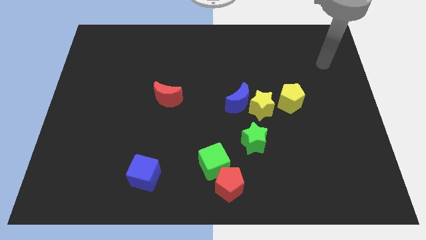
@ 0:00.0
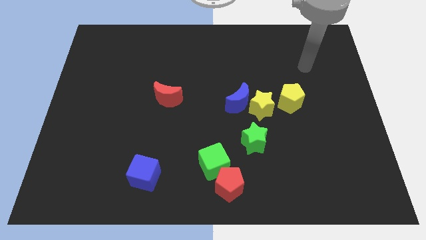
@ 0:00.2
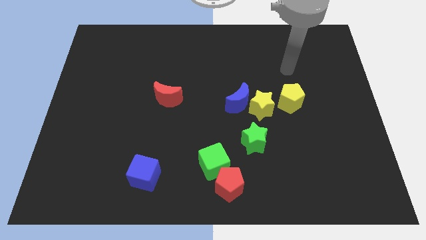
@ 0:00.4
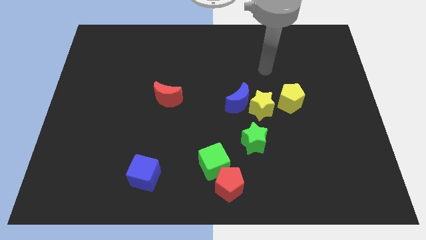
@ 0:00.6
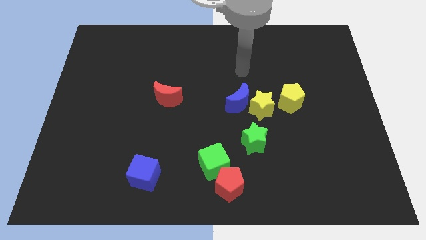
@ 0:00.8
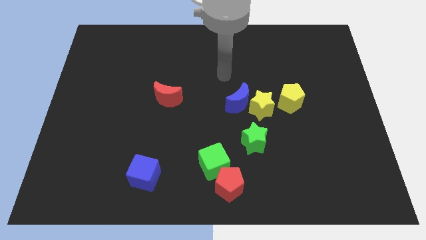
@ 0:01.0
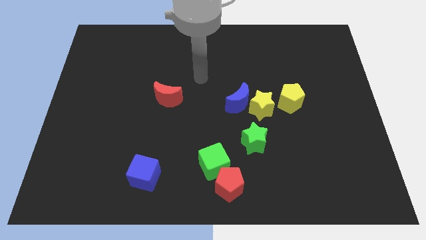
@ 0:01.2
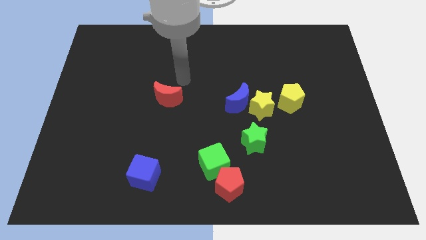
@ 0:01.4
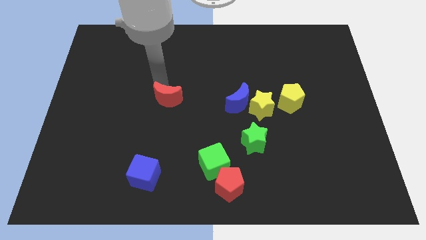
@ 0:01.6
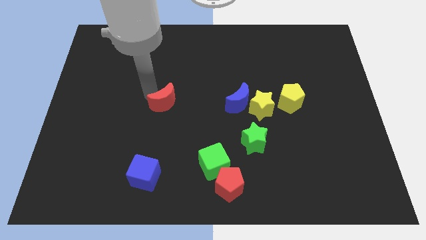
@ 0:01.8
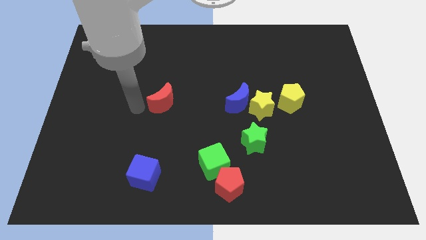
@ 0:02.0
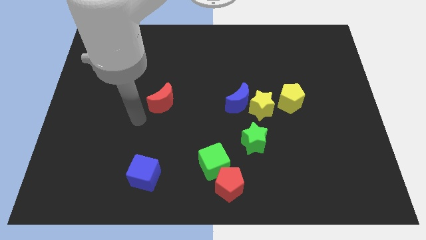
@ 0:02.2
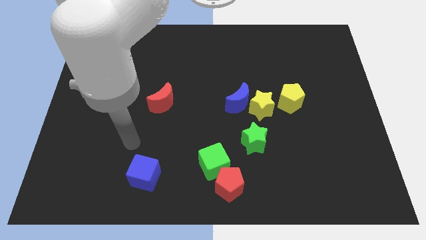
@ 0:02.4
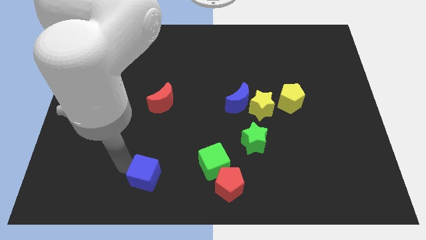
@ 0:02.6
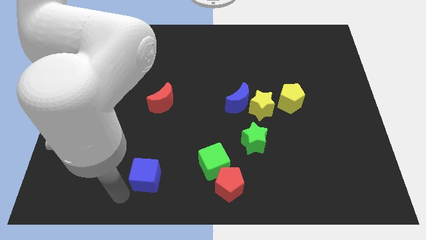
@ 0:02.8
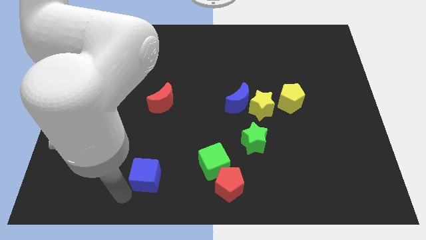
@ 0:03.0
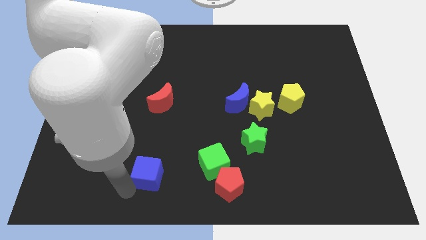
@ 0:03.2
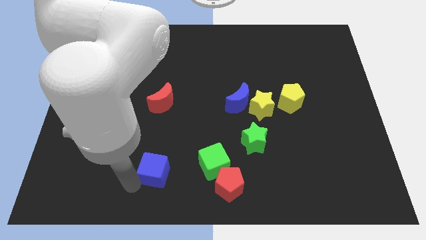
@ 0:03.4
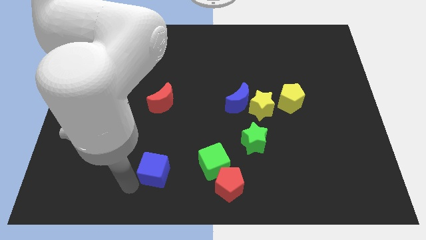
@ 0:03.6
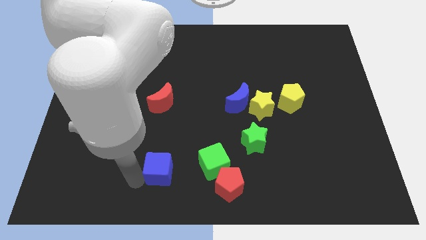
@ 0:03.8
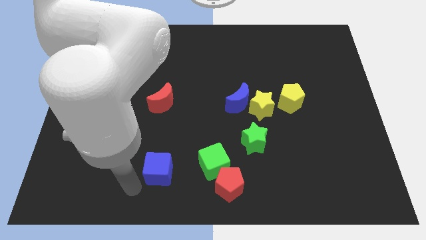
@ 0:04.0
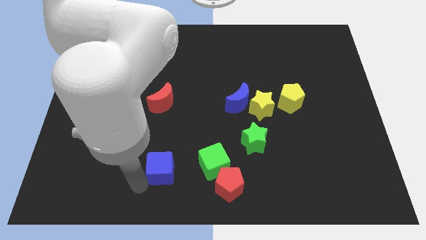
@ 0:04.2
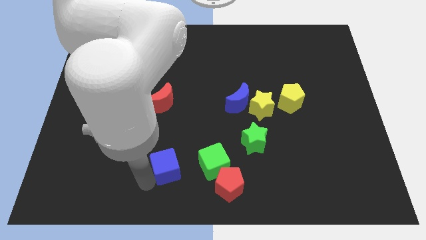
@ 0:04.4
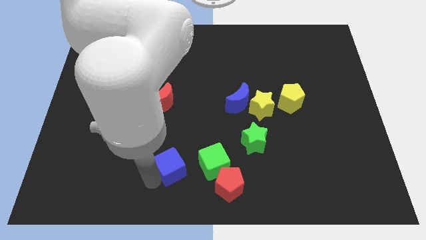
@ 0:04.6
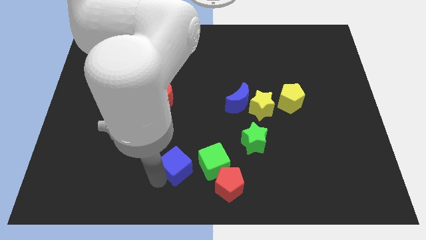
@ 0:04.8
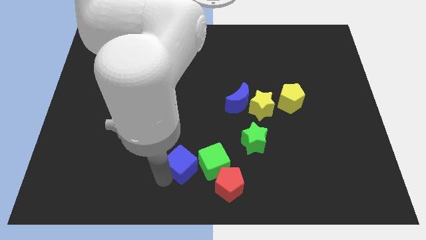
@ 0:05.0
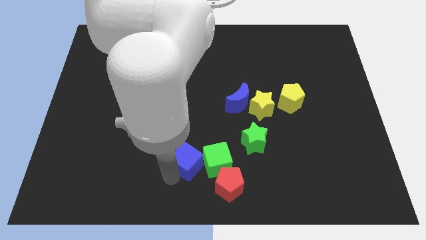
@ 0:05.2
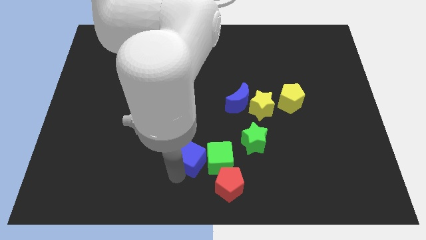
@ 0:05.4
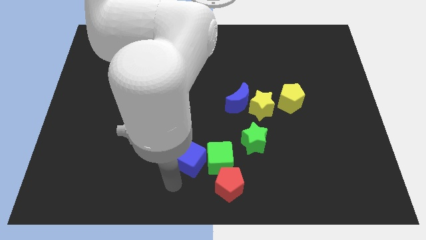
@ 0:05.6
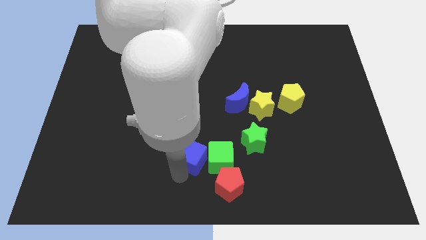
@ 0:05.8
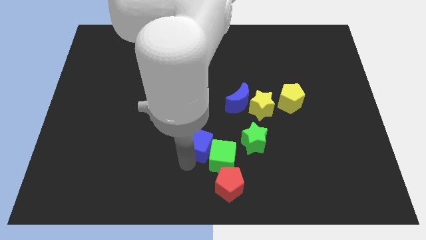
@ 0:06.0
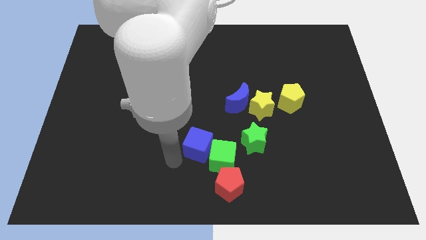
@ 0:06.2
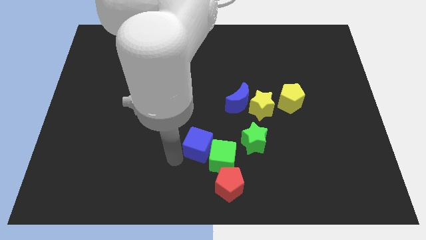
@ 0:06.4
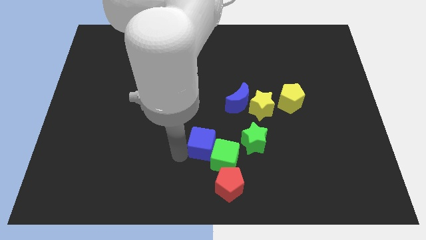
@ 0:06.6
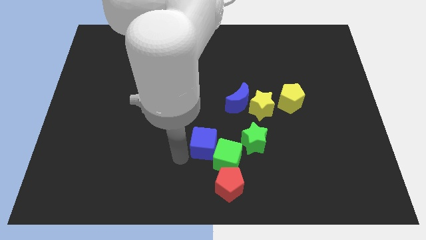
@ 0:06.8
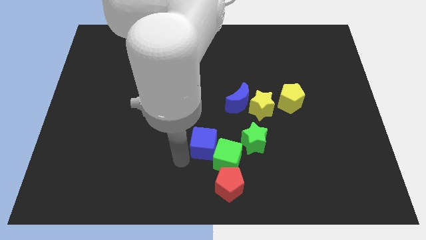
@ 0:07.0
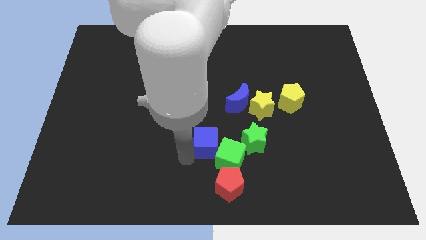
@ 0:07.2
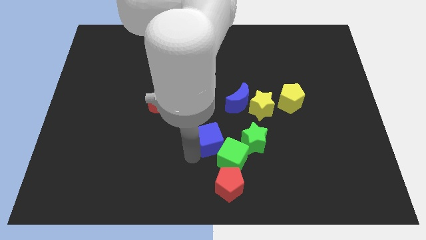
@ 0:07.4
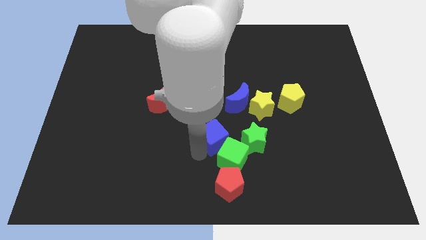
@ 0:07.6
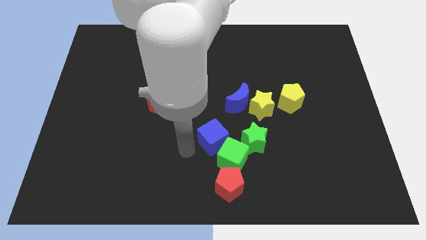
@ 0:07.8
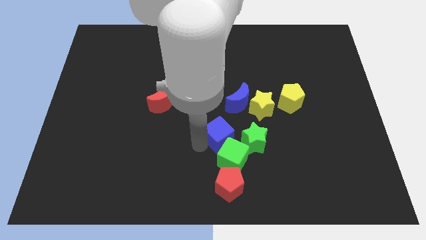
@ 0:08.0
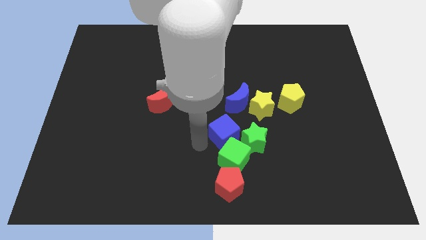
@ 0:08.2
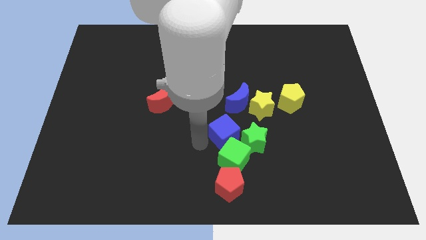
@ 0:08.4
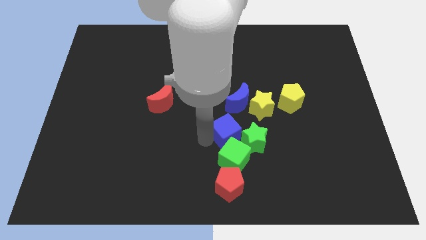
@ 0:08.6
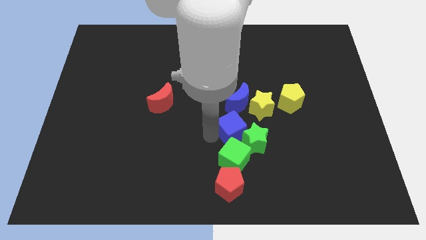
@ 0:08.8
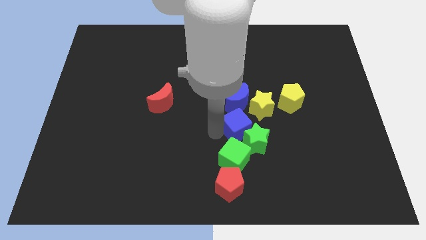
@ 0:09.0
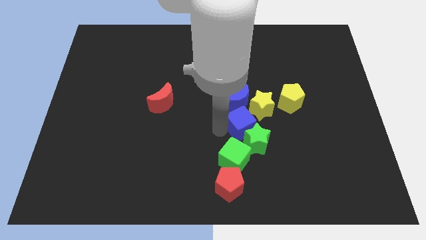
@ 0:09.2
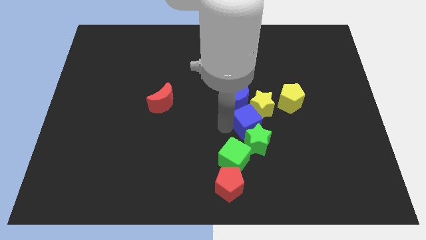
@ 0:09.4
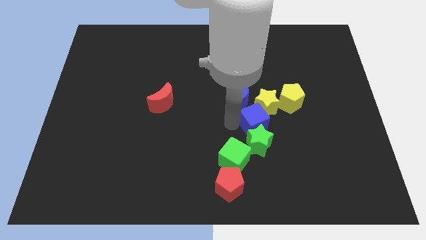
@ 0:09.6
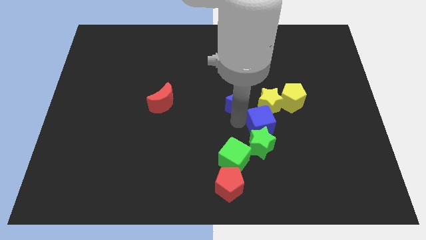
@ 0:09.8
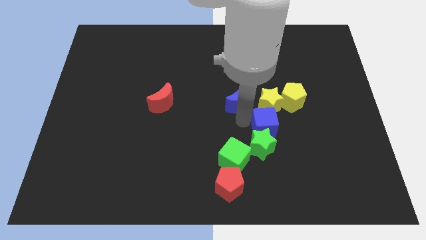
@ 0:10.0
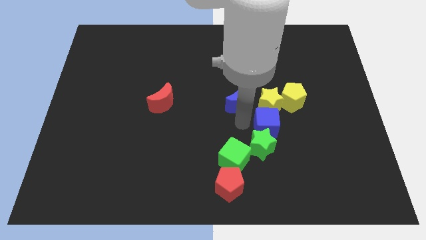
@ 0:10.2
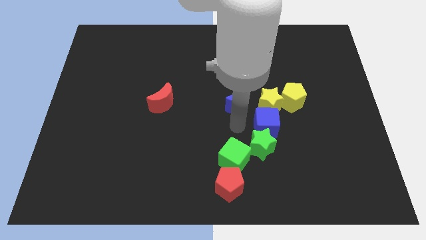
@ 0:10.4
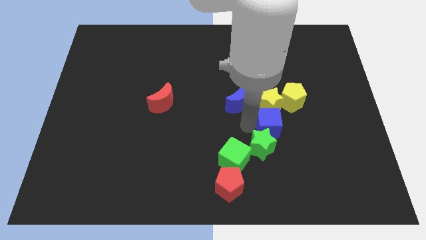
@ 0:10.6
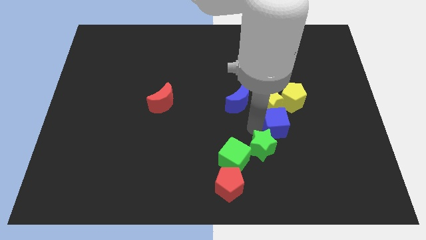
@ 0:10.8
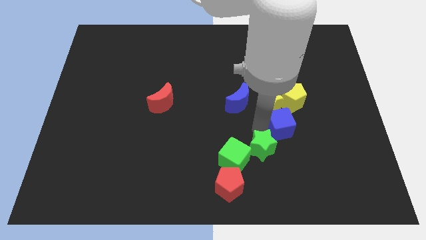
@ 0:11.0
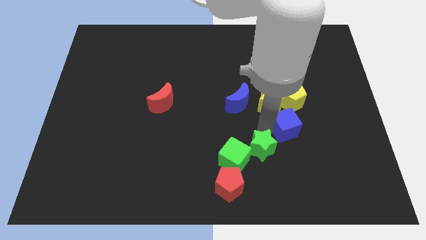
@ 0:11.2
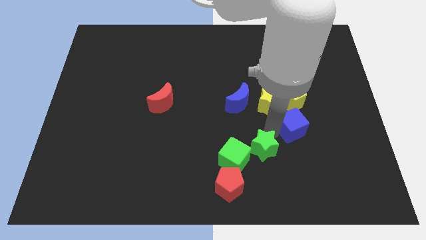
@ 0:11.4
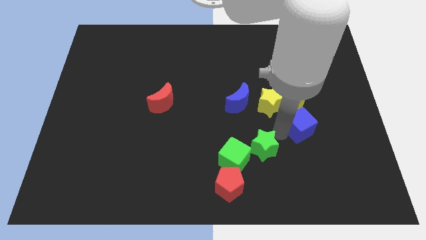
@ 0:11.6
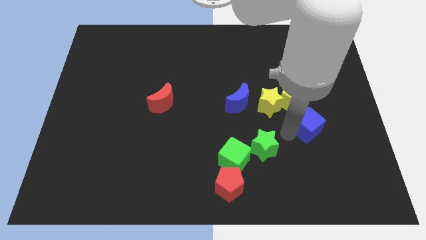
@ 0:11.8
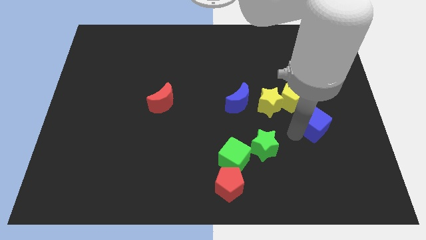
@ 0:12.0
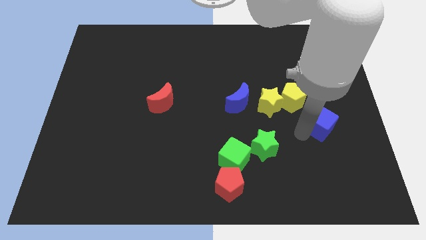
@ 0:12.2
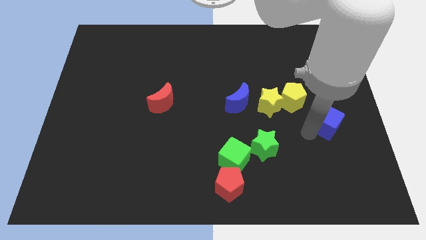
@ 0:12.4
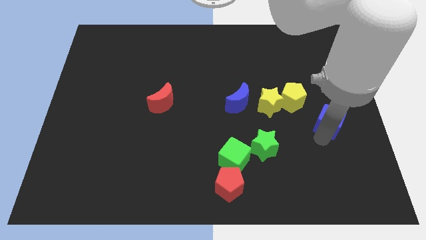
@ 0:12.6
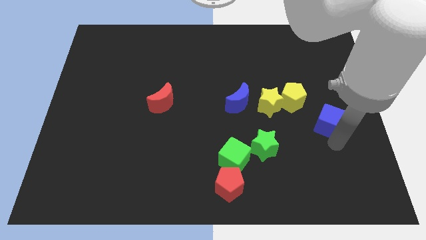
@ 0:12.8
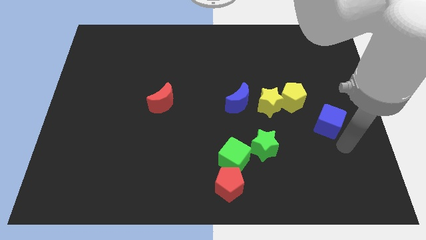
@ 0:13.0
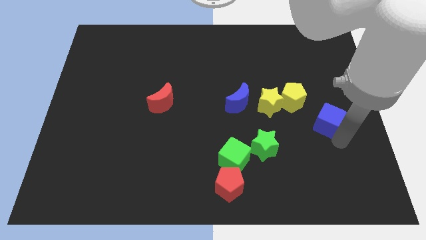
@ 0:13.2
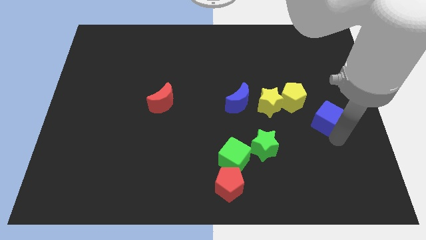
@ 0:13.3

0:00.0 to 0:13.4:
move the blue cube right of the yellow star
